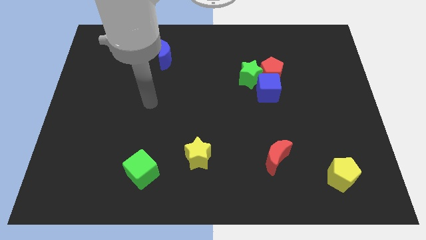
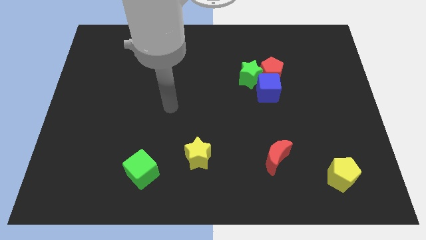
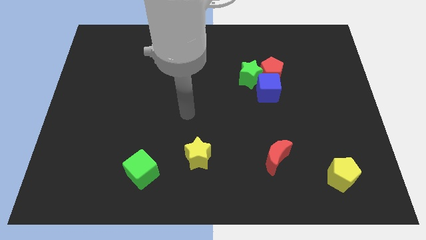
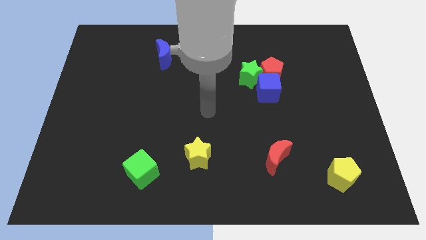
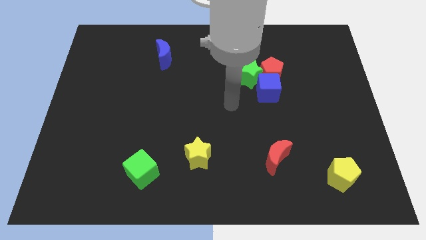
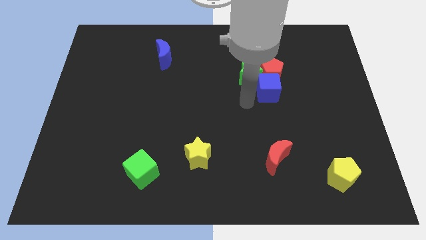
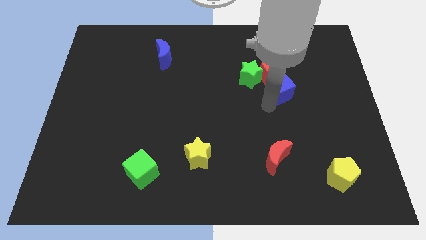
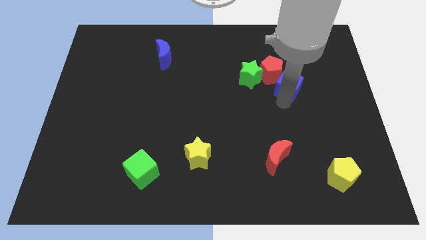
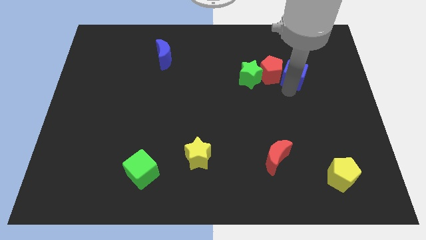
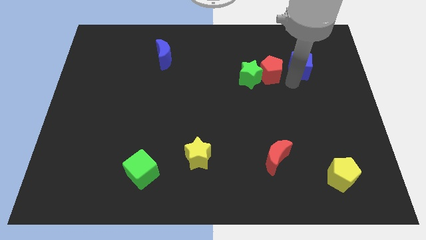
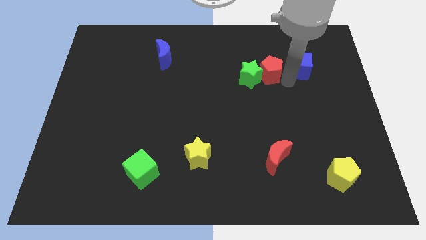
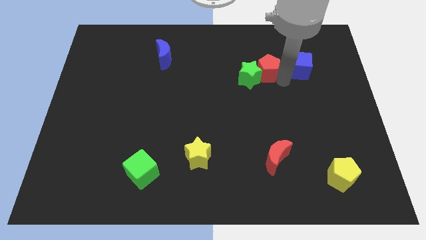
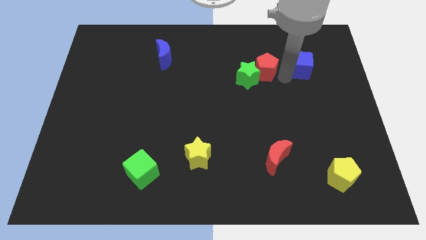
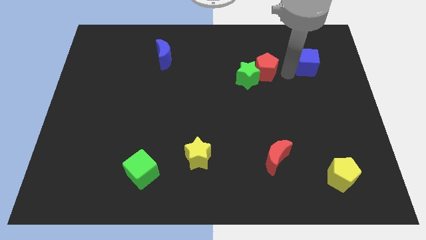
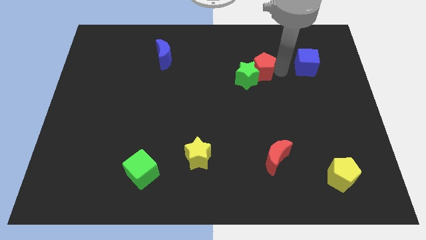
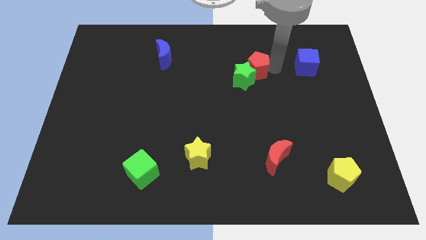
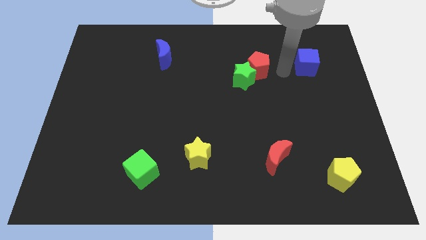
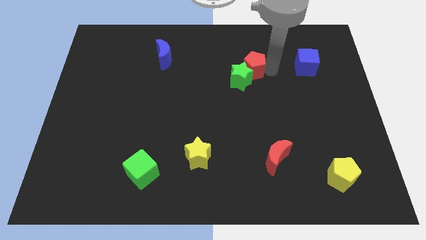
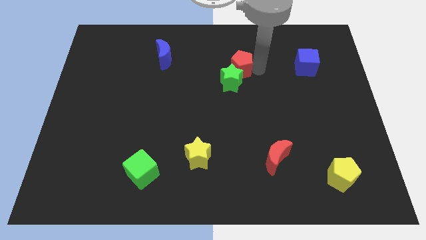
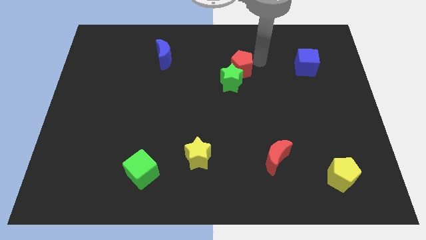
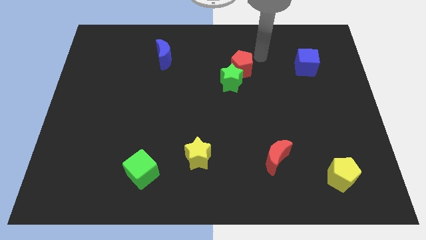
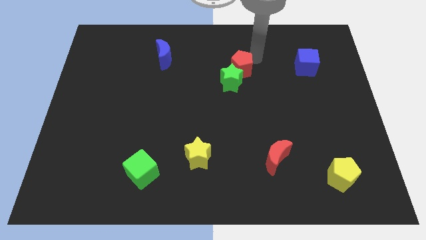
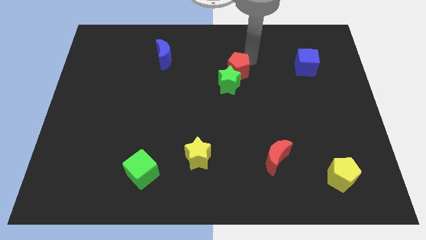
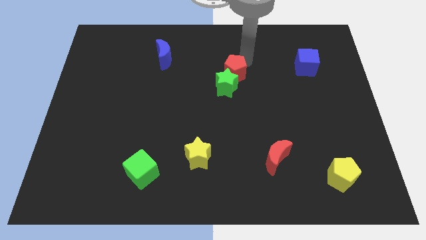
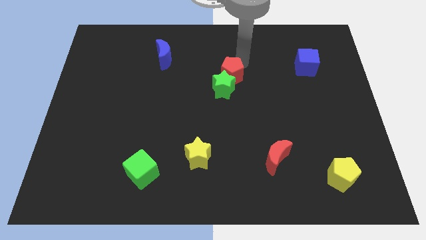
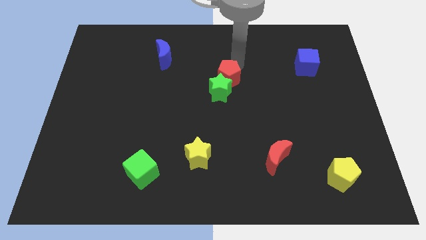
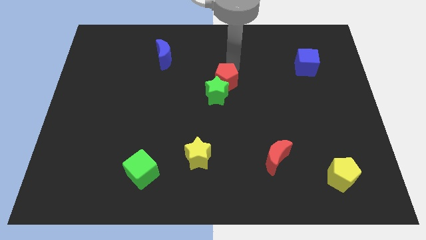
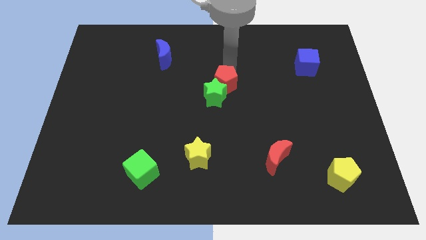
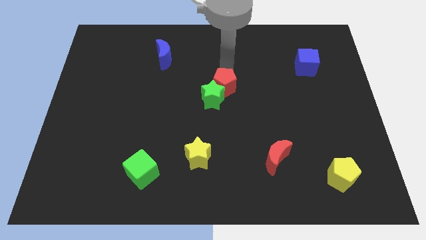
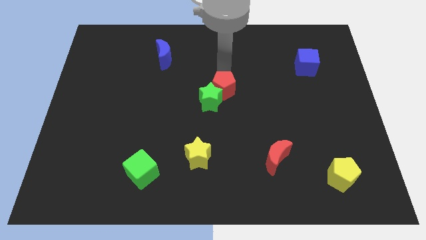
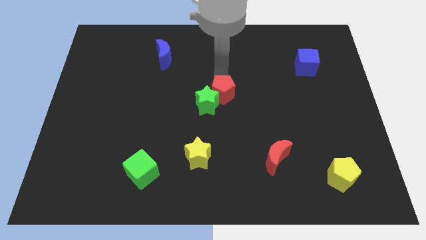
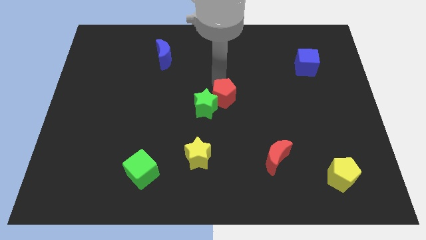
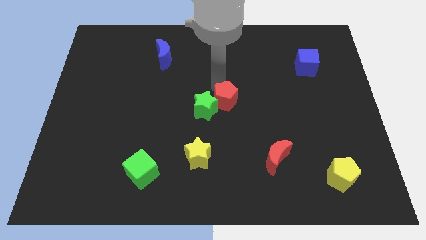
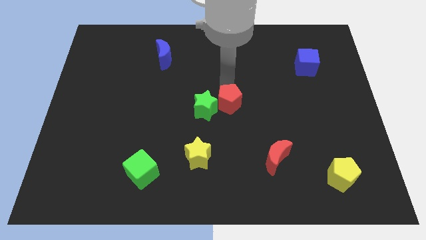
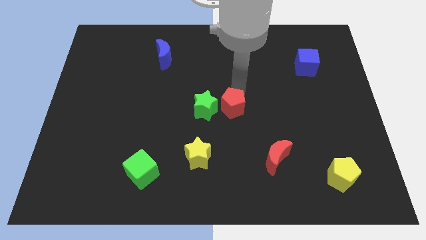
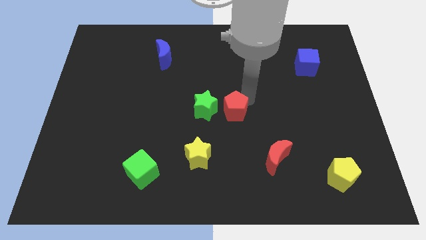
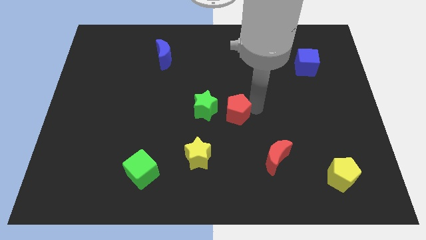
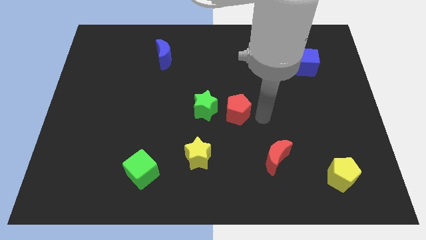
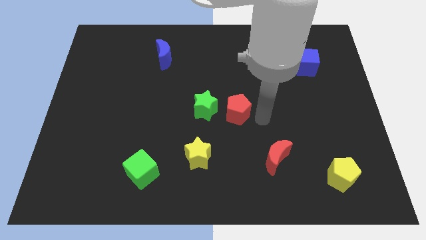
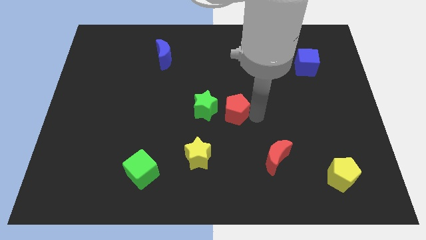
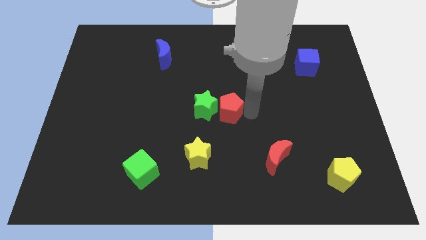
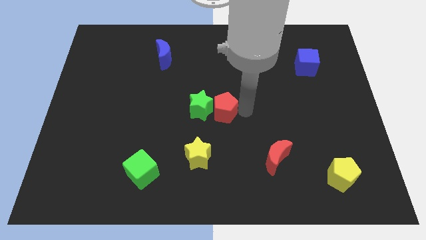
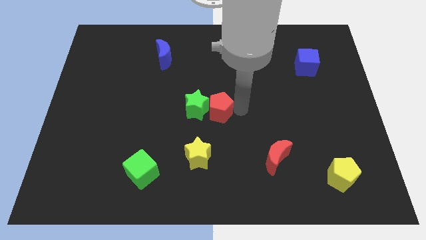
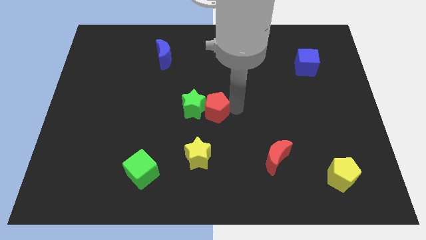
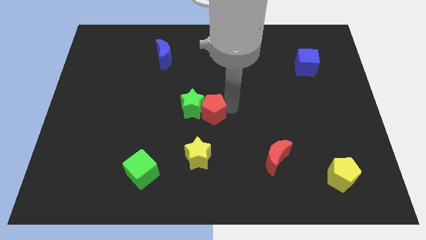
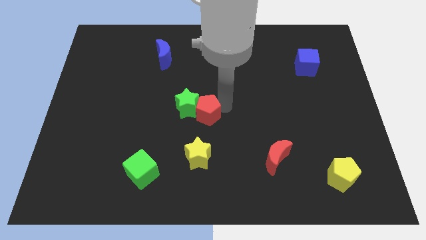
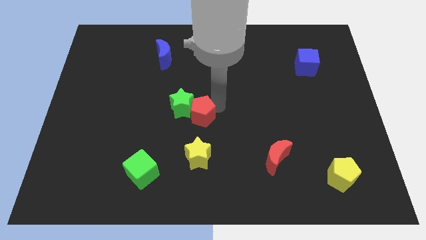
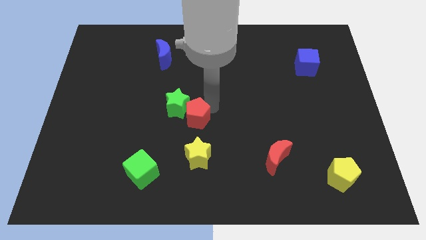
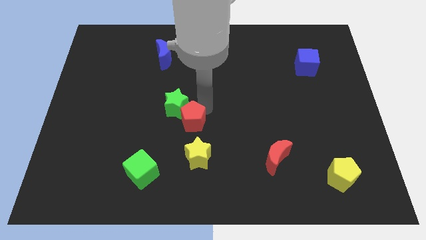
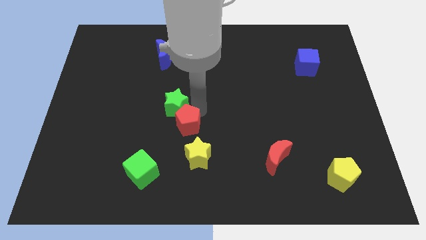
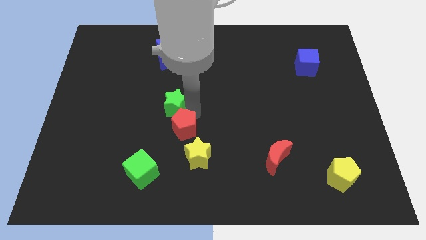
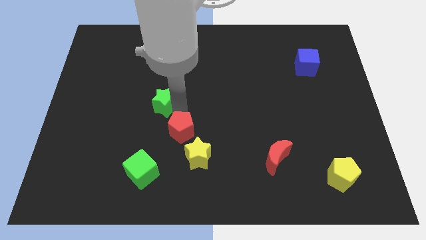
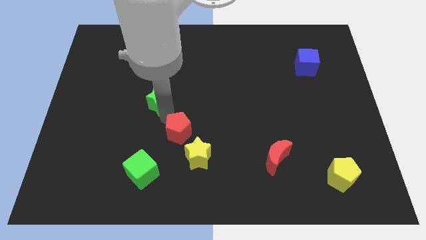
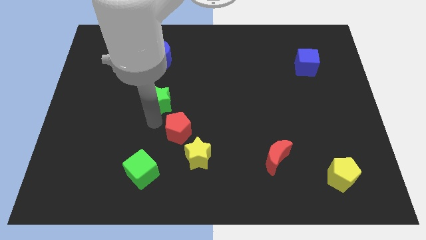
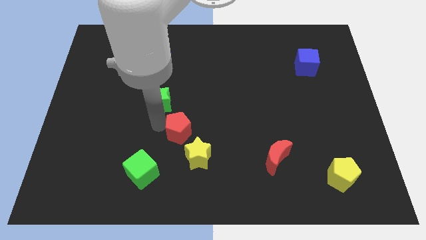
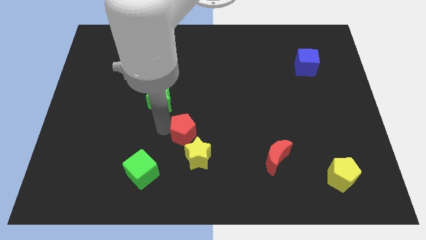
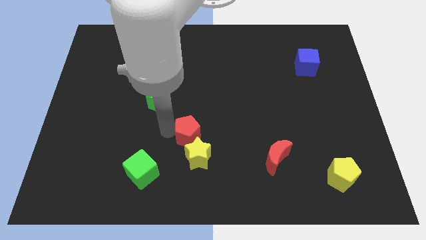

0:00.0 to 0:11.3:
push the red pentagon close to the yellow star

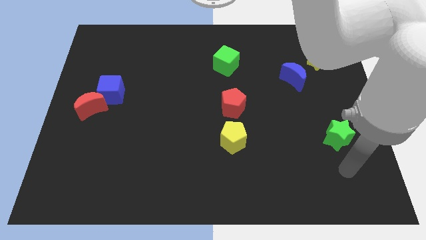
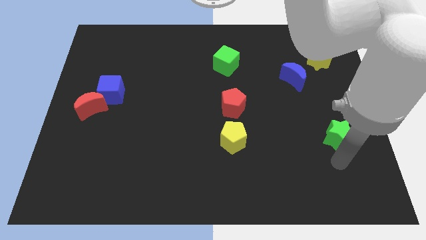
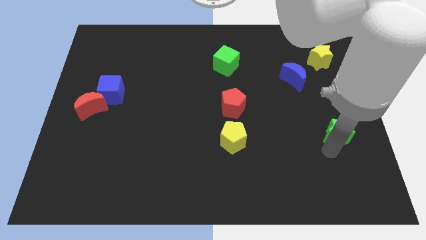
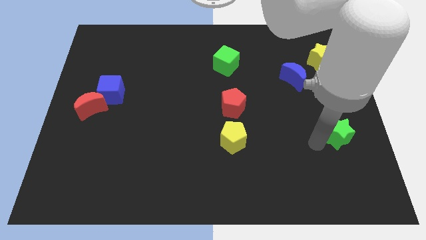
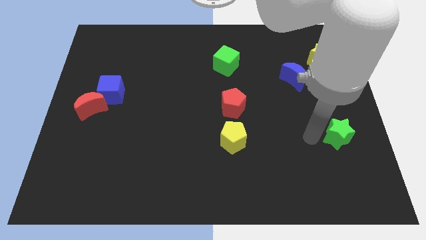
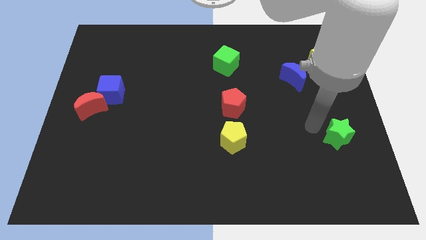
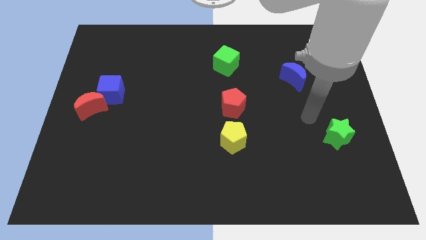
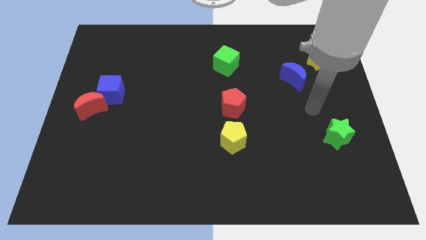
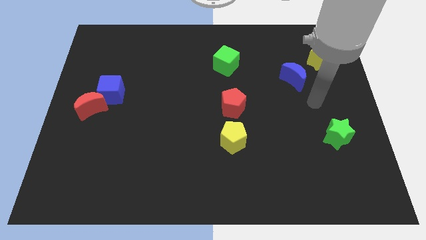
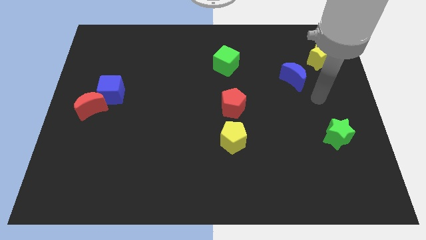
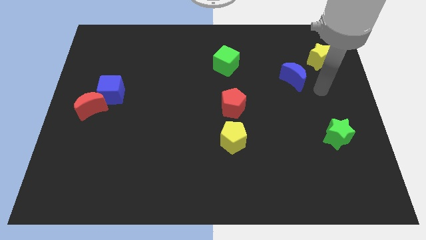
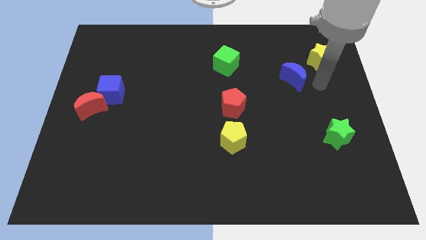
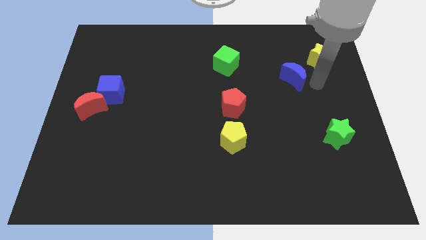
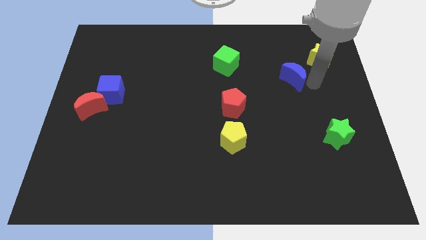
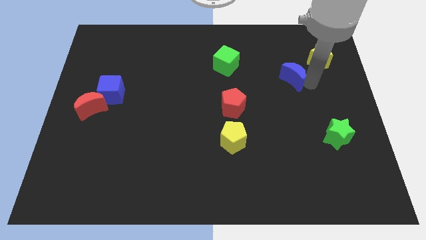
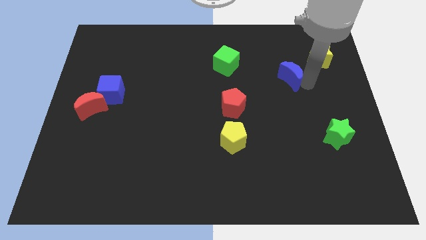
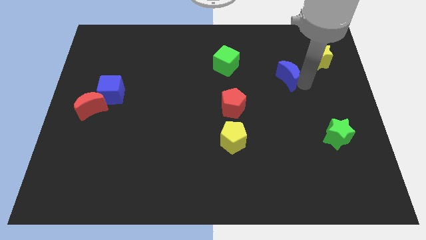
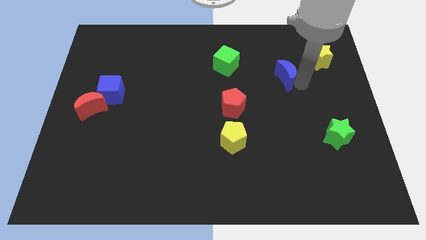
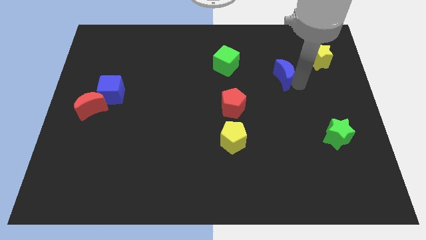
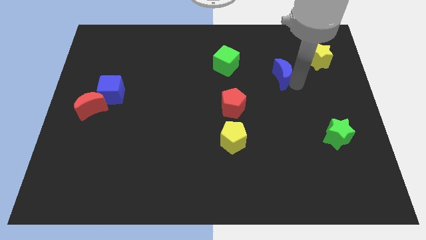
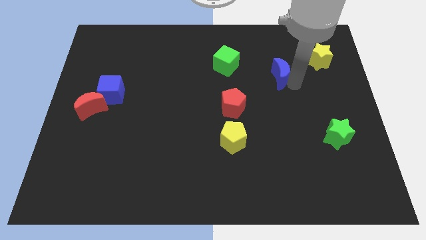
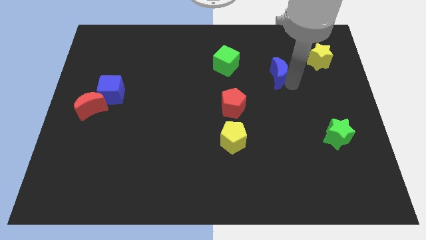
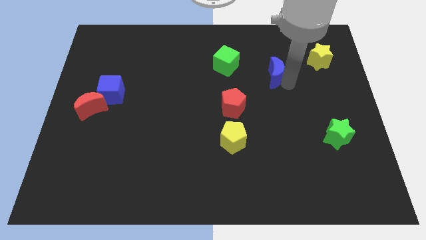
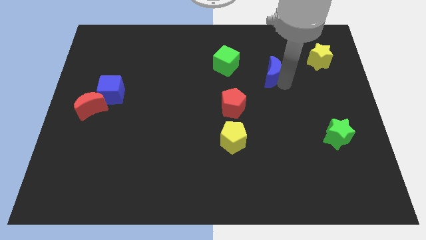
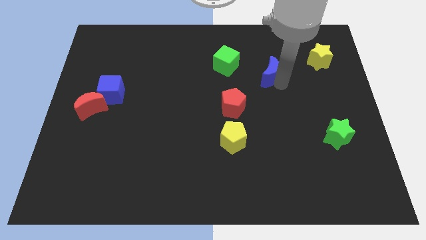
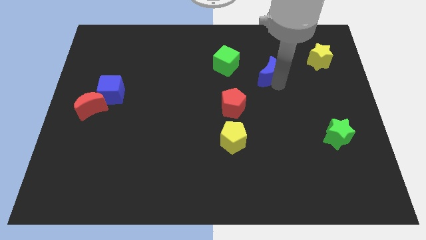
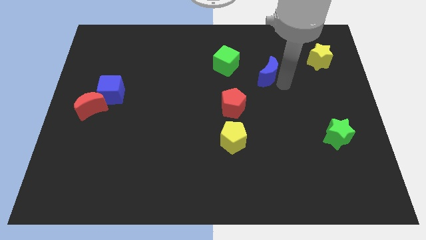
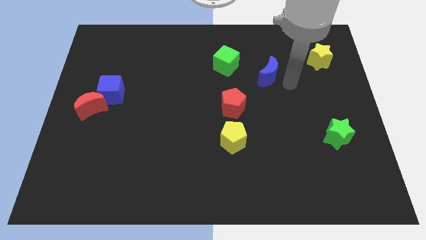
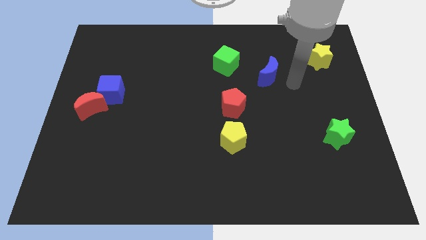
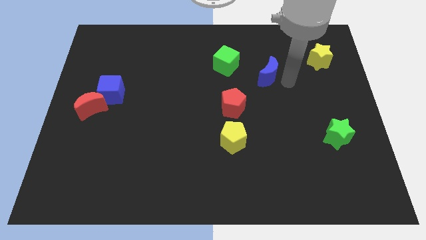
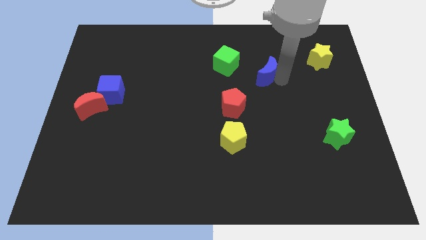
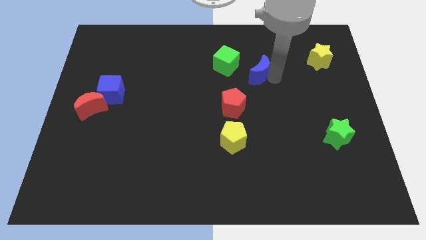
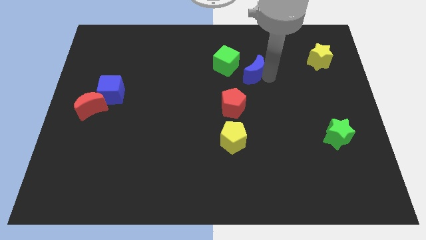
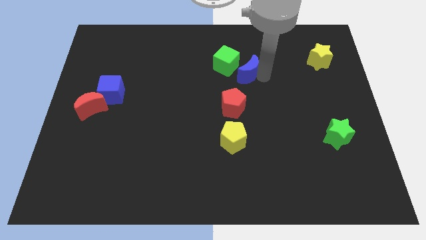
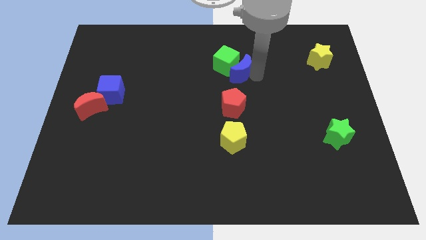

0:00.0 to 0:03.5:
push the blue moon to the green cube
